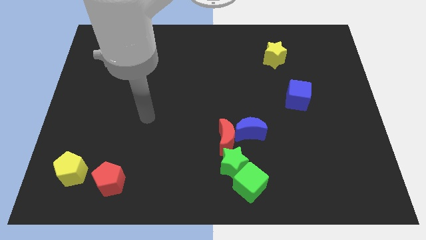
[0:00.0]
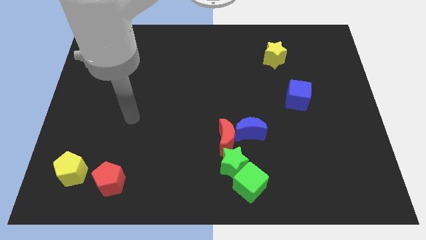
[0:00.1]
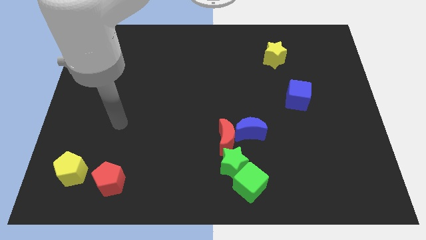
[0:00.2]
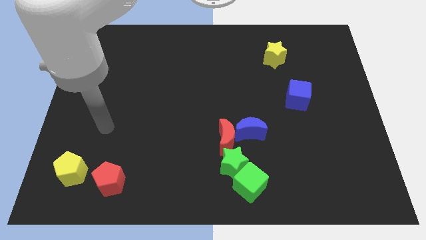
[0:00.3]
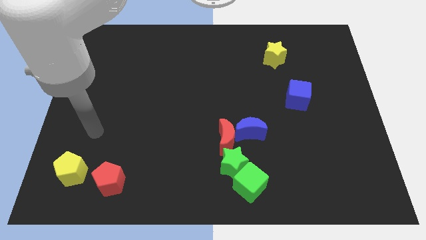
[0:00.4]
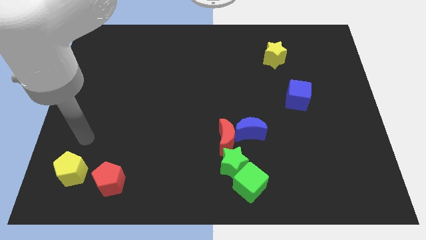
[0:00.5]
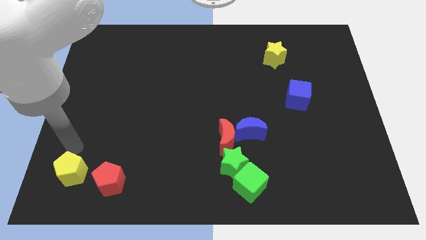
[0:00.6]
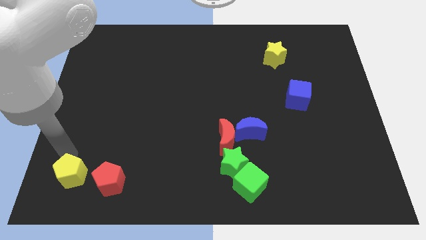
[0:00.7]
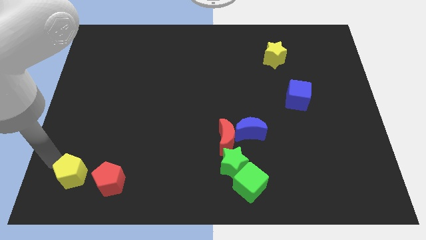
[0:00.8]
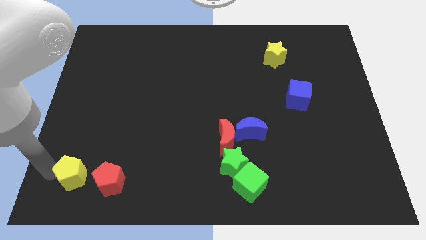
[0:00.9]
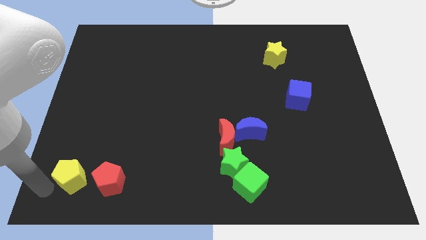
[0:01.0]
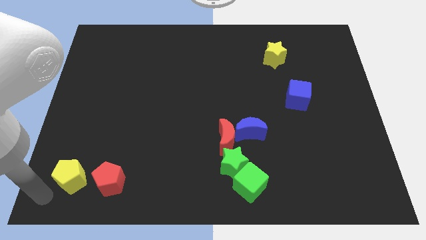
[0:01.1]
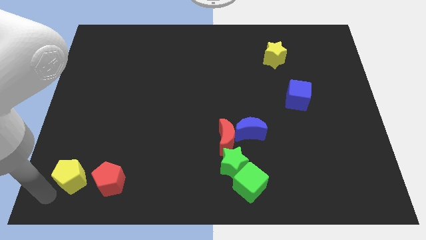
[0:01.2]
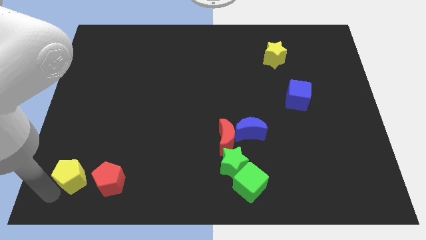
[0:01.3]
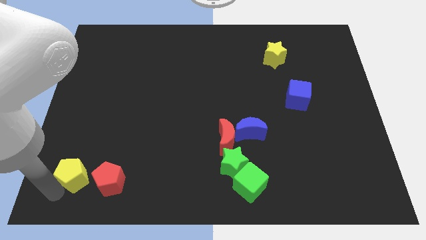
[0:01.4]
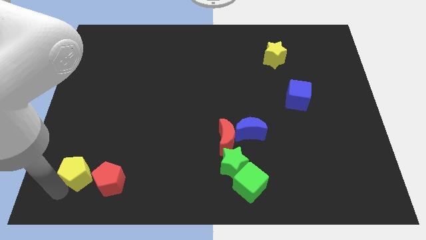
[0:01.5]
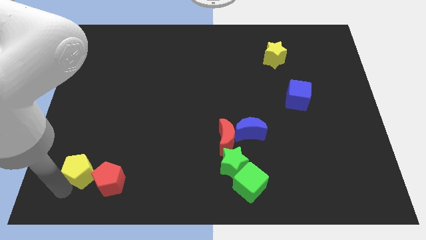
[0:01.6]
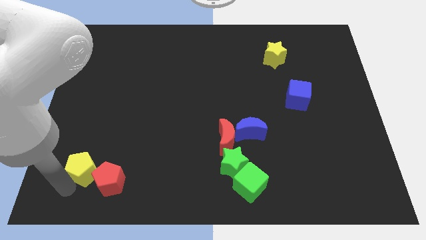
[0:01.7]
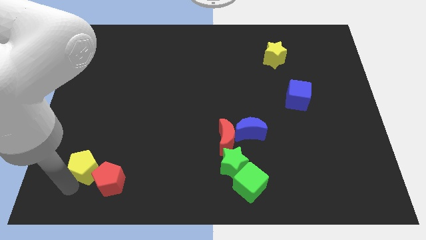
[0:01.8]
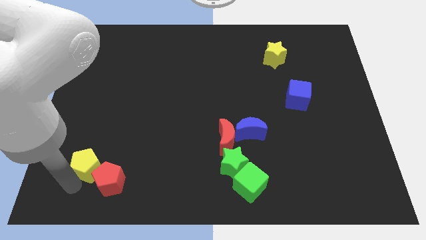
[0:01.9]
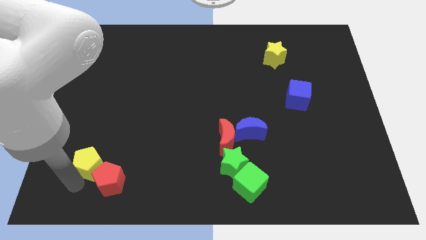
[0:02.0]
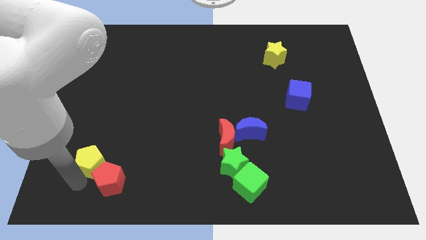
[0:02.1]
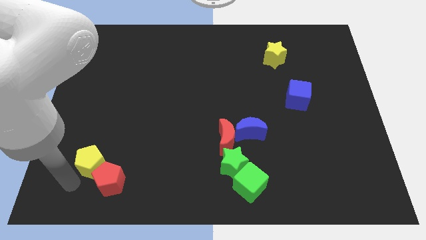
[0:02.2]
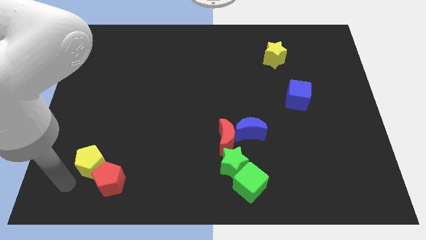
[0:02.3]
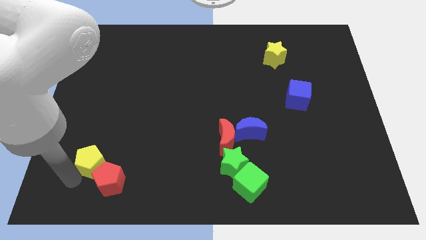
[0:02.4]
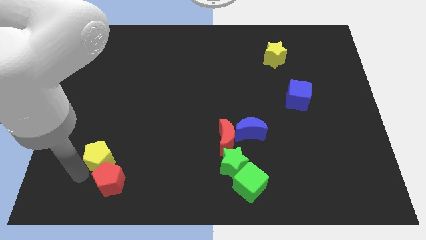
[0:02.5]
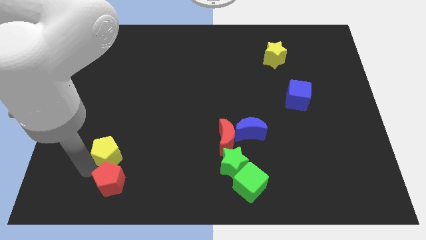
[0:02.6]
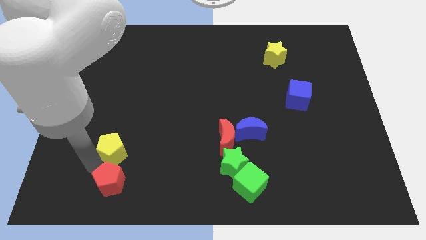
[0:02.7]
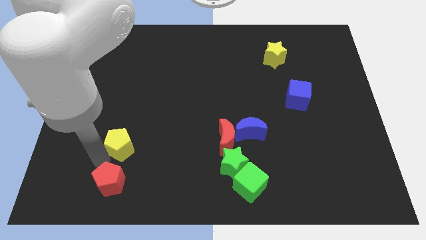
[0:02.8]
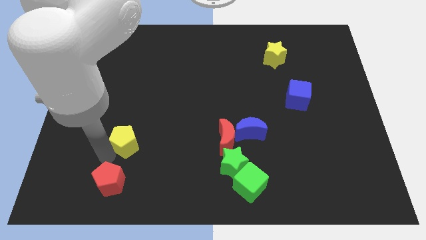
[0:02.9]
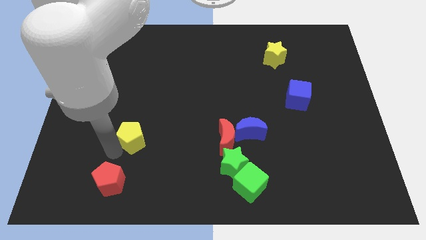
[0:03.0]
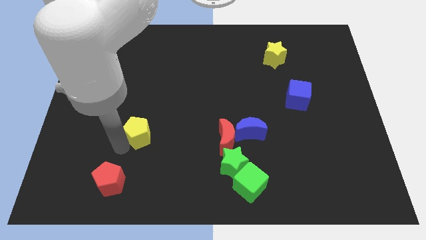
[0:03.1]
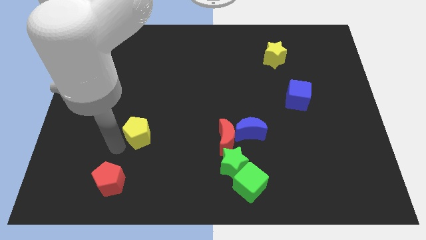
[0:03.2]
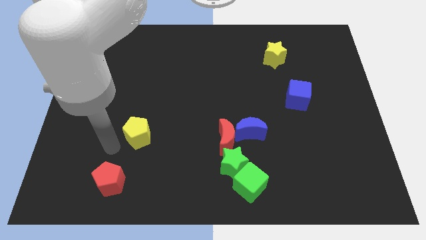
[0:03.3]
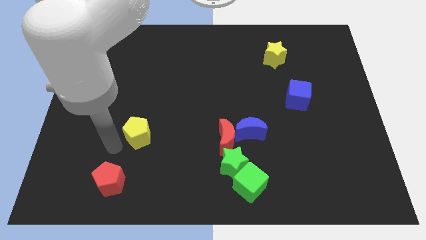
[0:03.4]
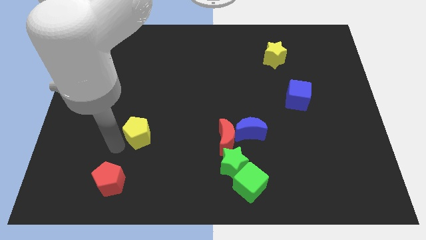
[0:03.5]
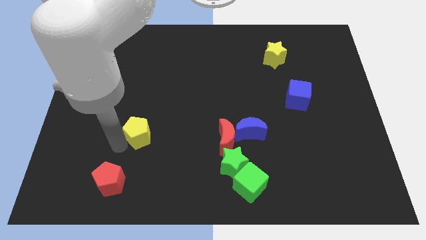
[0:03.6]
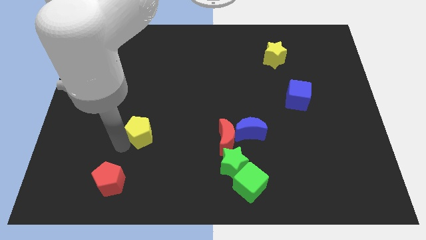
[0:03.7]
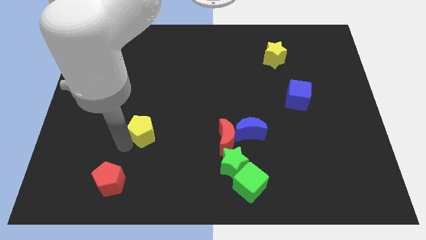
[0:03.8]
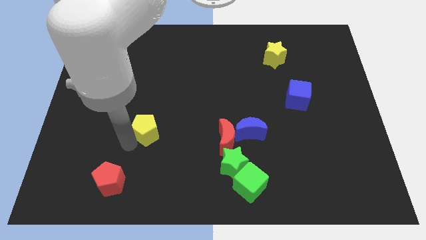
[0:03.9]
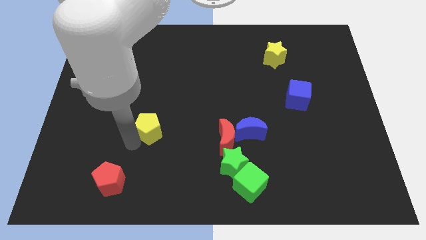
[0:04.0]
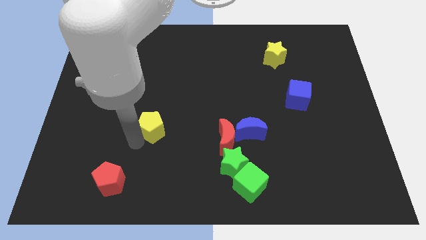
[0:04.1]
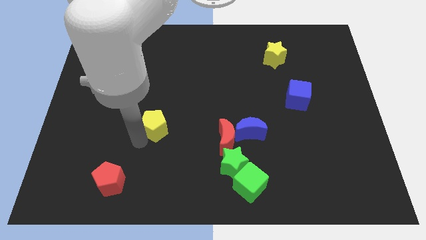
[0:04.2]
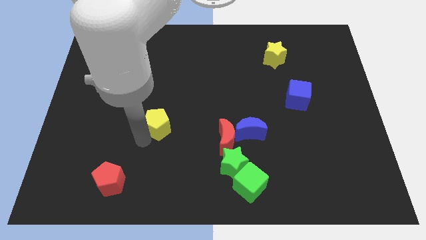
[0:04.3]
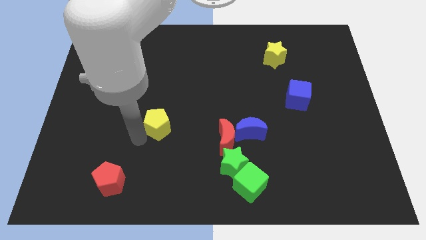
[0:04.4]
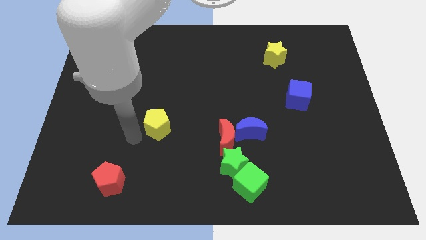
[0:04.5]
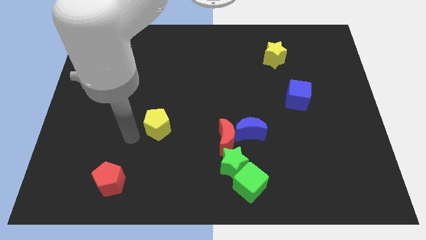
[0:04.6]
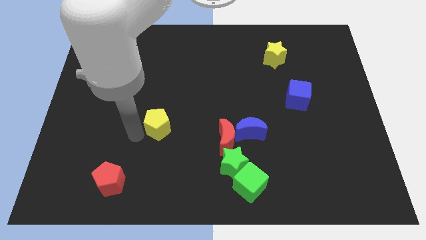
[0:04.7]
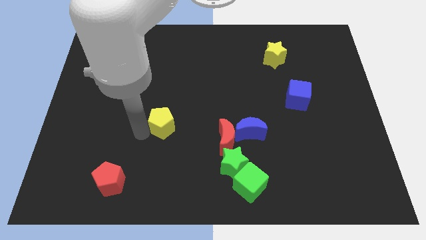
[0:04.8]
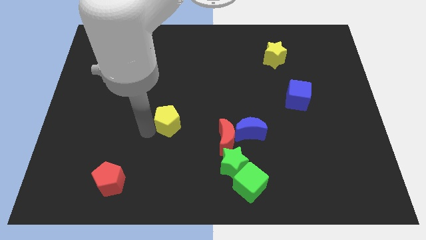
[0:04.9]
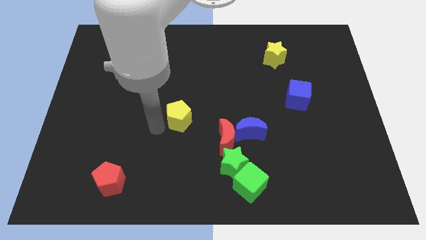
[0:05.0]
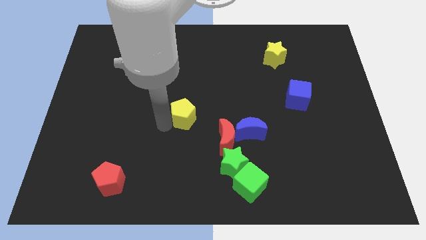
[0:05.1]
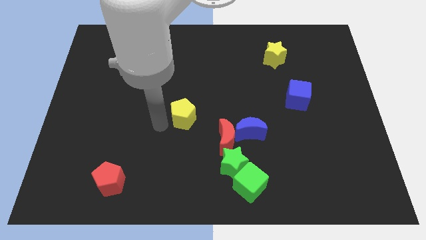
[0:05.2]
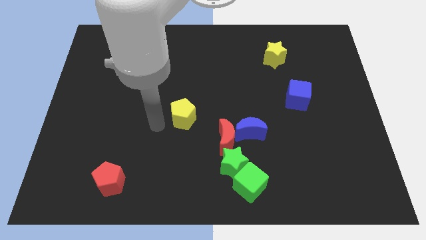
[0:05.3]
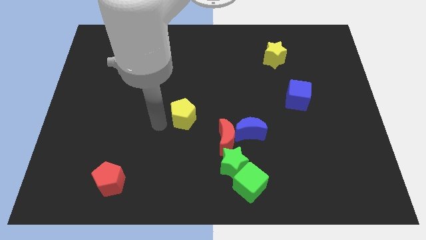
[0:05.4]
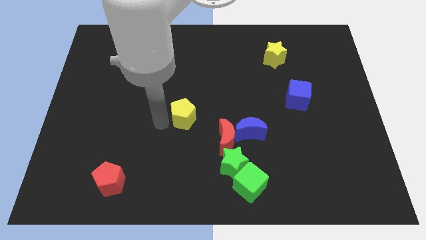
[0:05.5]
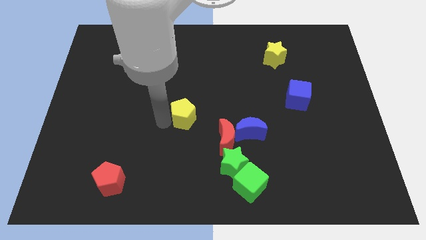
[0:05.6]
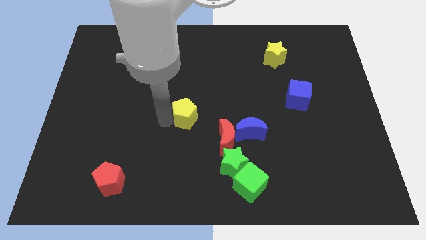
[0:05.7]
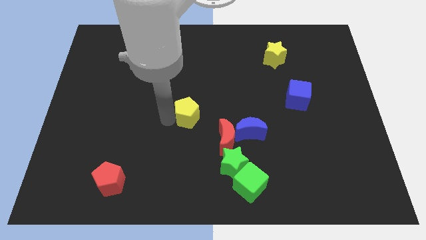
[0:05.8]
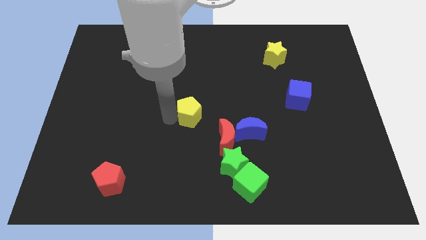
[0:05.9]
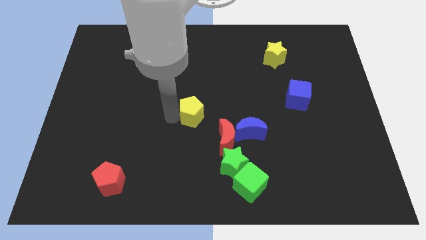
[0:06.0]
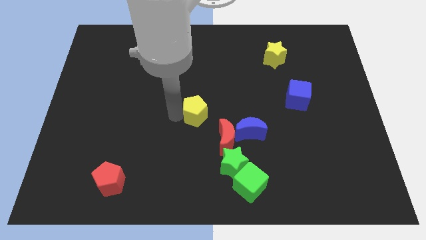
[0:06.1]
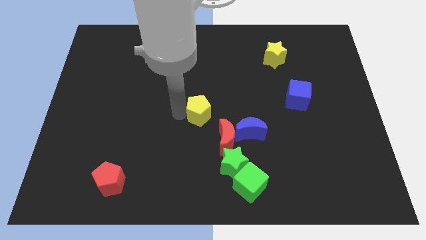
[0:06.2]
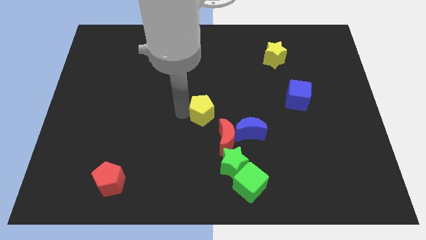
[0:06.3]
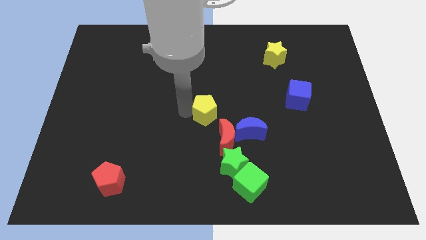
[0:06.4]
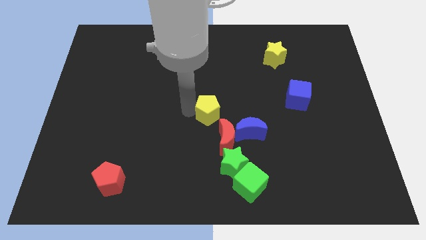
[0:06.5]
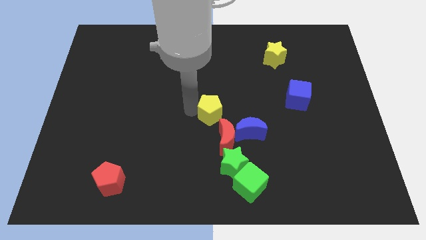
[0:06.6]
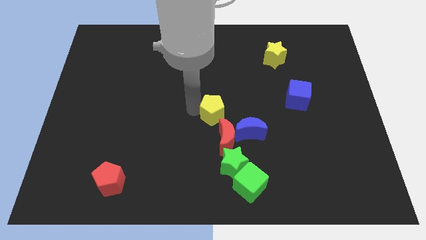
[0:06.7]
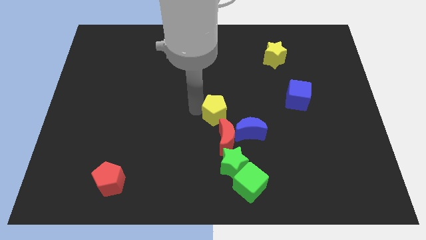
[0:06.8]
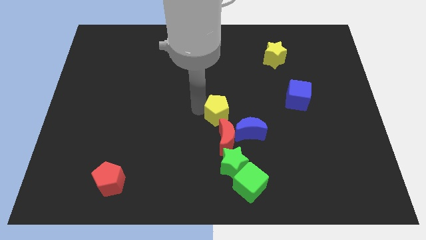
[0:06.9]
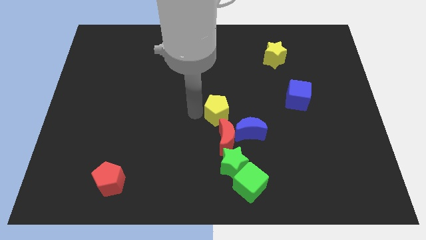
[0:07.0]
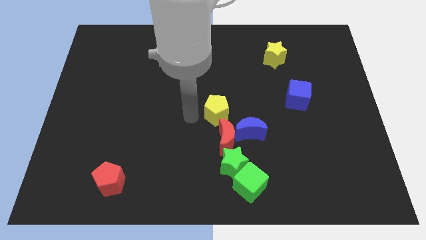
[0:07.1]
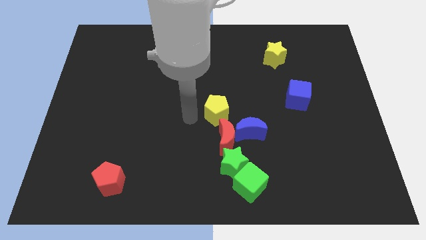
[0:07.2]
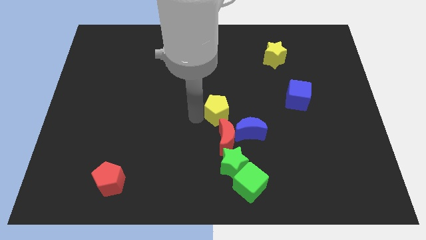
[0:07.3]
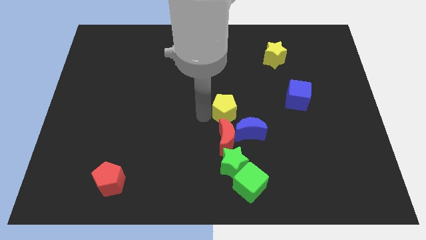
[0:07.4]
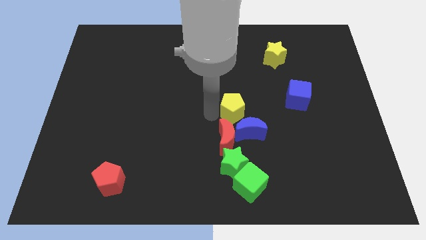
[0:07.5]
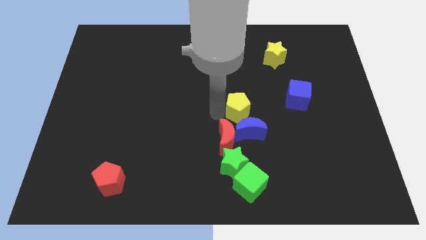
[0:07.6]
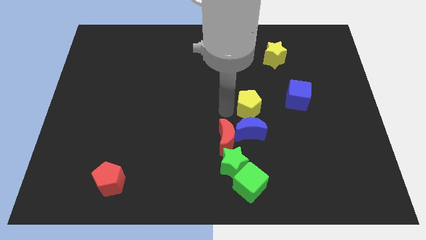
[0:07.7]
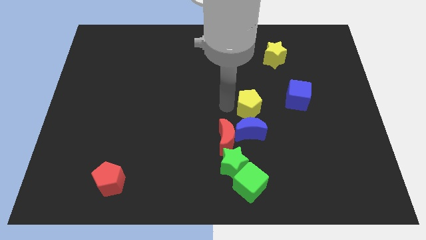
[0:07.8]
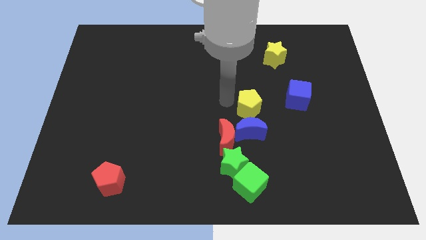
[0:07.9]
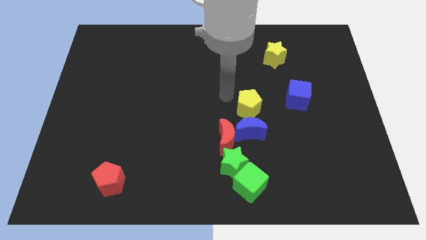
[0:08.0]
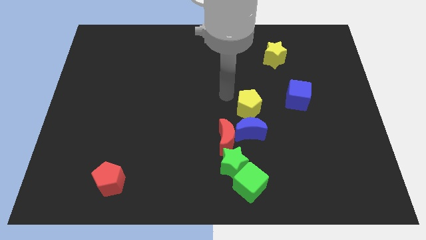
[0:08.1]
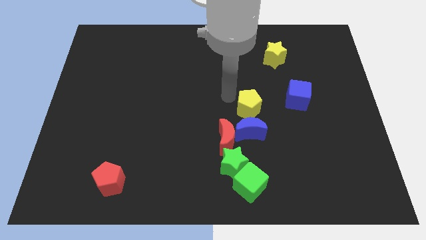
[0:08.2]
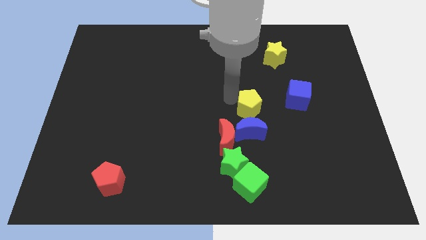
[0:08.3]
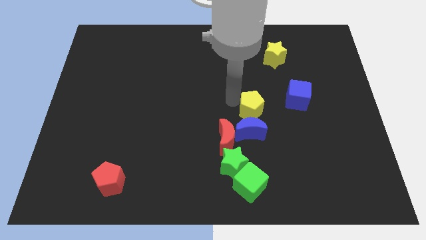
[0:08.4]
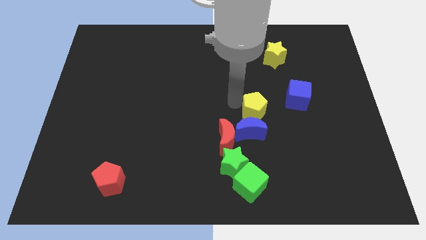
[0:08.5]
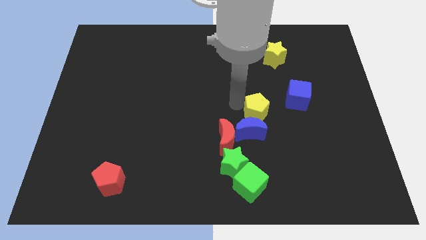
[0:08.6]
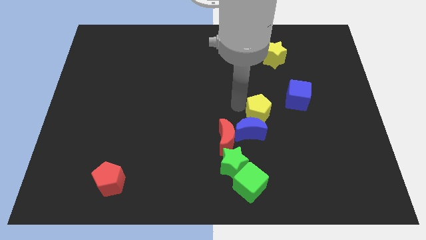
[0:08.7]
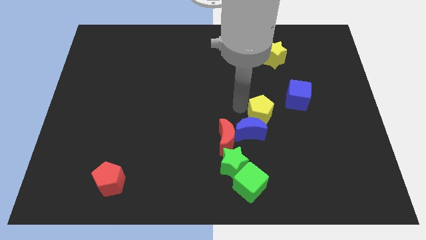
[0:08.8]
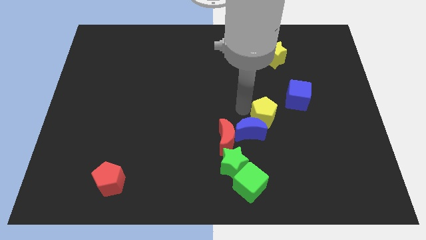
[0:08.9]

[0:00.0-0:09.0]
push the yellow pentagon to the right of the blue moon
